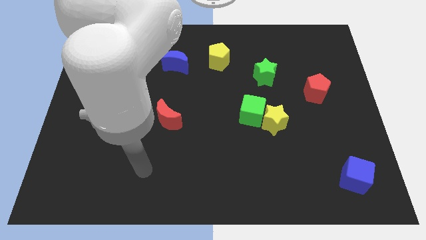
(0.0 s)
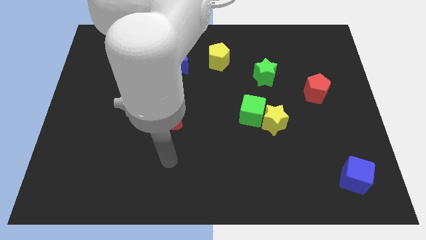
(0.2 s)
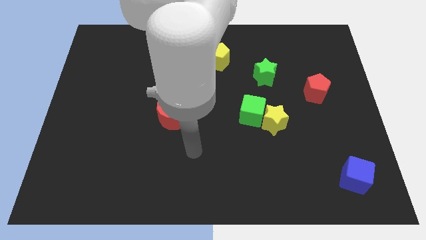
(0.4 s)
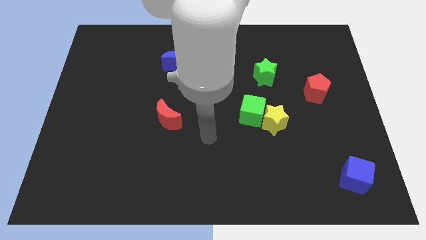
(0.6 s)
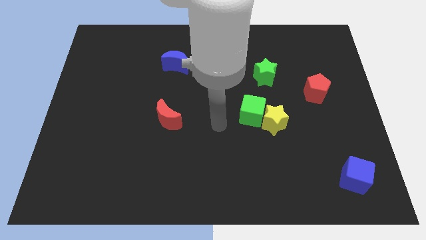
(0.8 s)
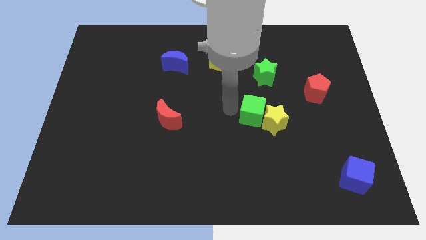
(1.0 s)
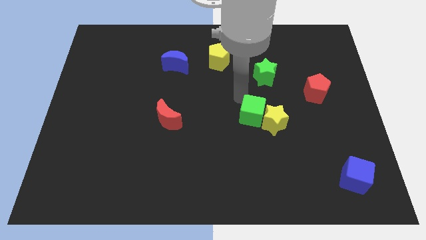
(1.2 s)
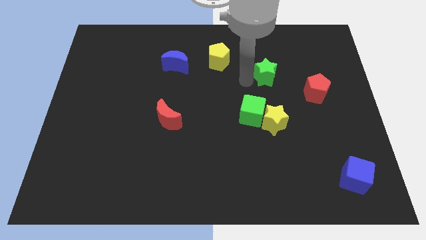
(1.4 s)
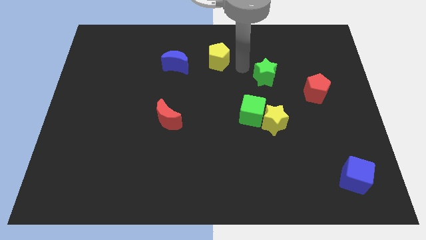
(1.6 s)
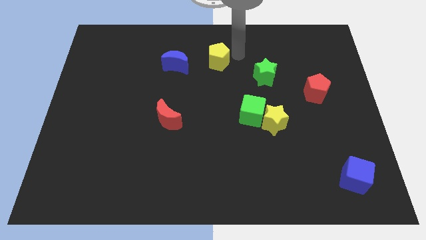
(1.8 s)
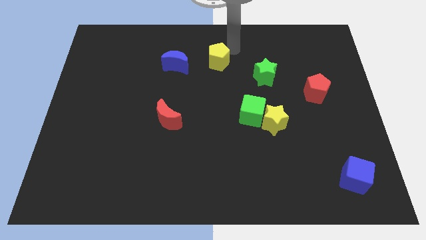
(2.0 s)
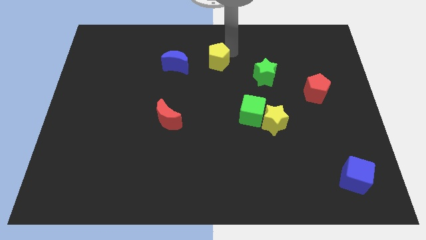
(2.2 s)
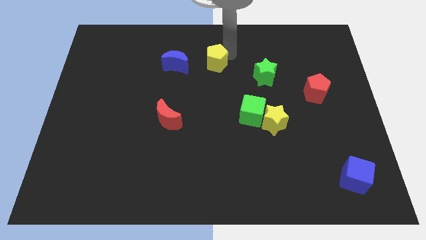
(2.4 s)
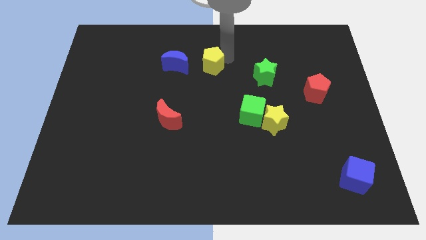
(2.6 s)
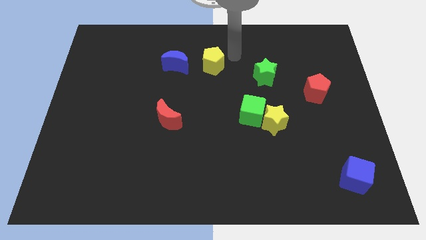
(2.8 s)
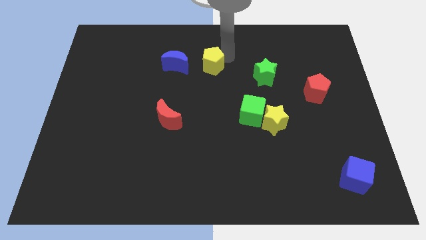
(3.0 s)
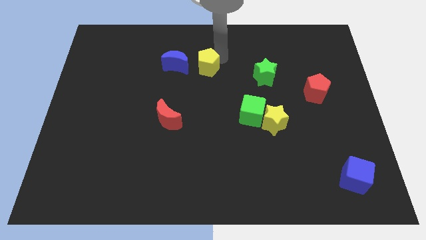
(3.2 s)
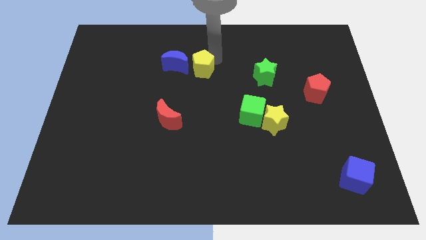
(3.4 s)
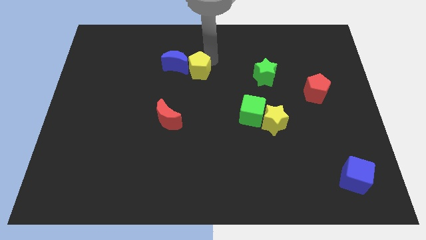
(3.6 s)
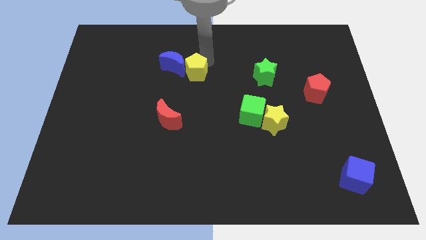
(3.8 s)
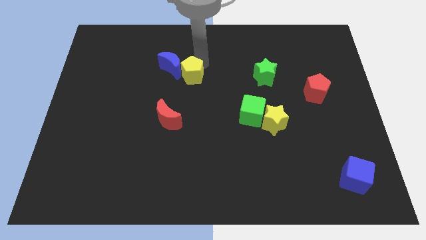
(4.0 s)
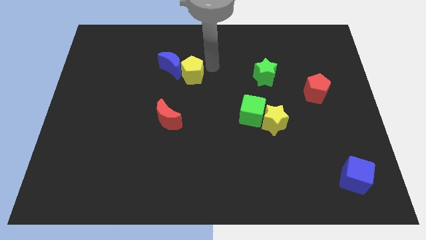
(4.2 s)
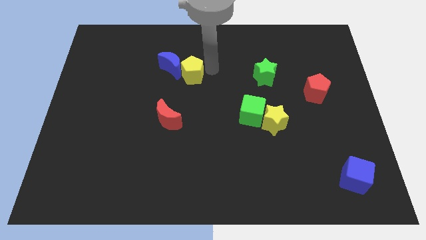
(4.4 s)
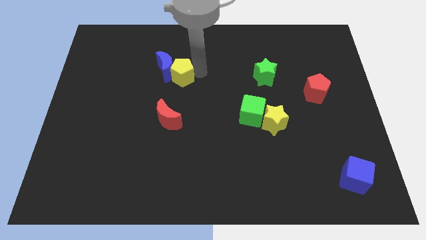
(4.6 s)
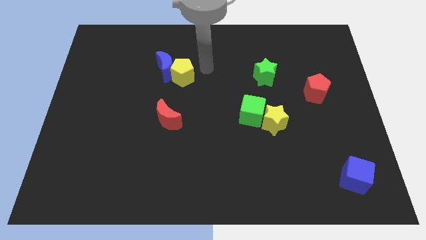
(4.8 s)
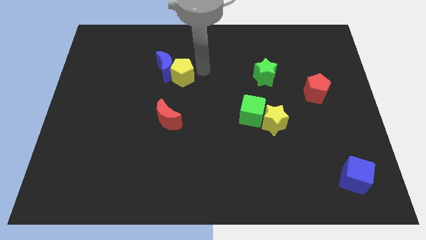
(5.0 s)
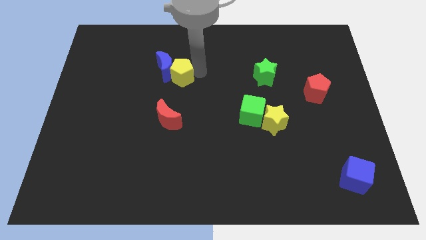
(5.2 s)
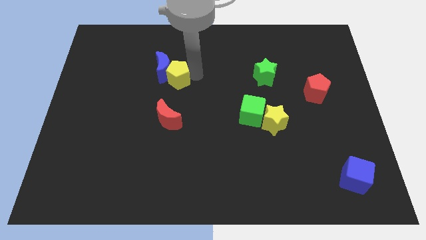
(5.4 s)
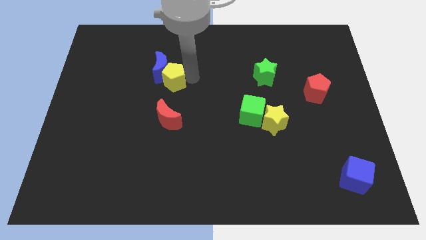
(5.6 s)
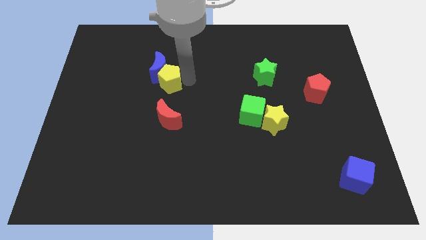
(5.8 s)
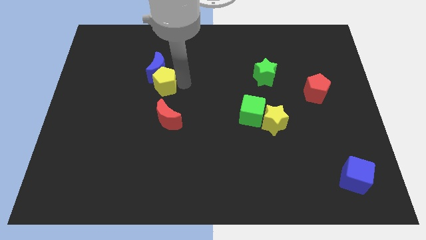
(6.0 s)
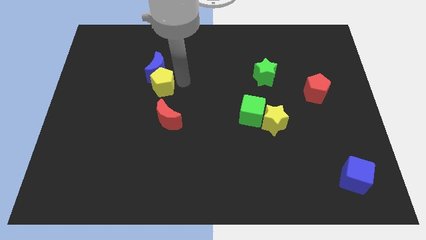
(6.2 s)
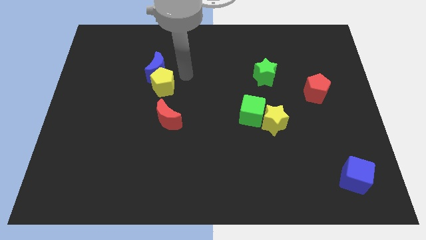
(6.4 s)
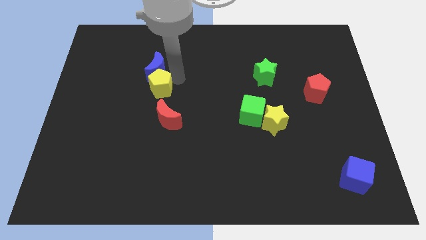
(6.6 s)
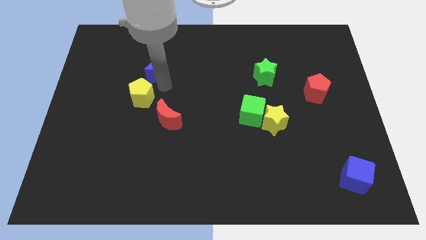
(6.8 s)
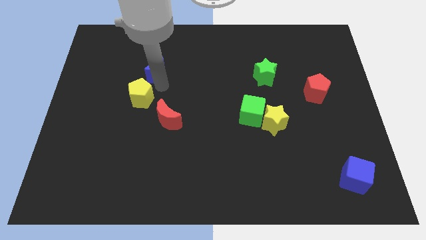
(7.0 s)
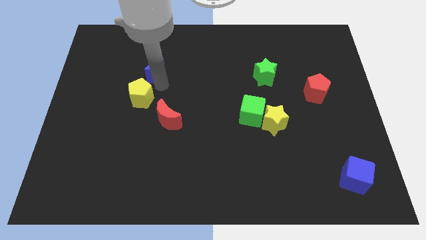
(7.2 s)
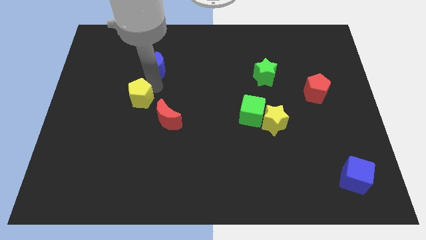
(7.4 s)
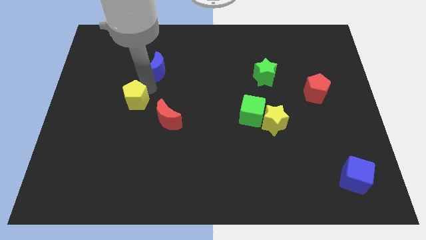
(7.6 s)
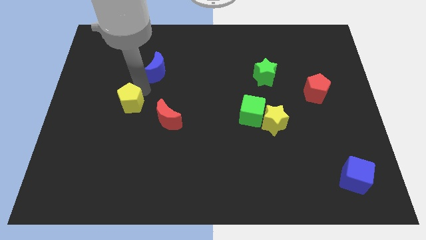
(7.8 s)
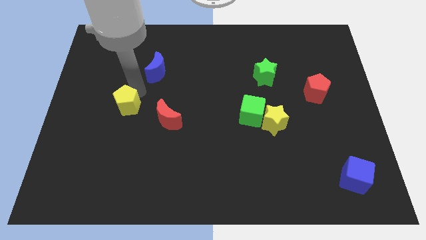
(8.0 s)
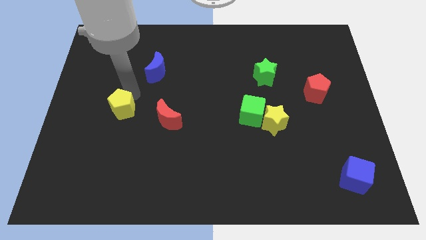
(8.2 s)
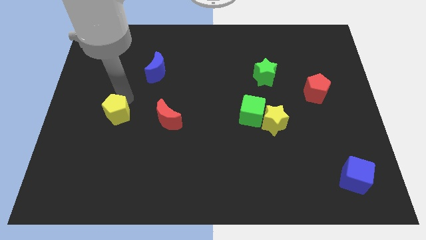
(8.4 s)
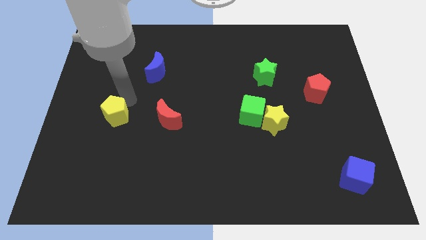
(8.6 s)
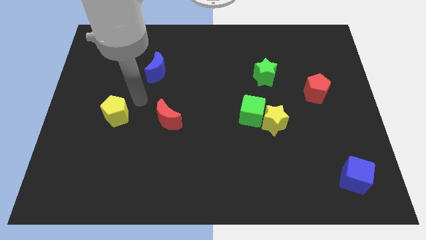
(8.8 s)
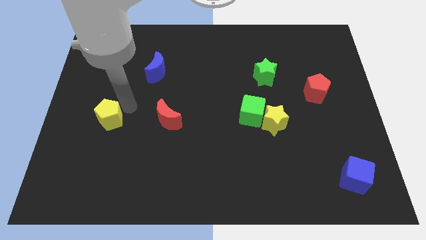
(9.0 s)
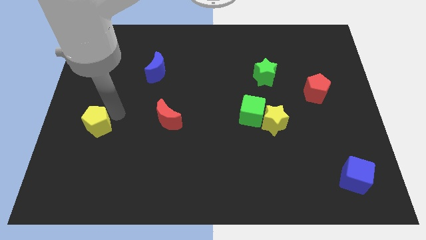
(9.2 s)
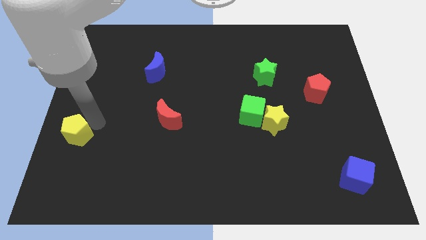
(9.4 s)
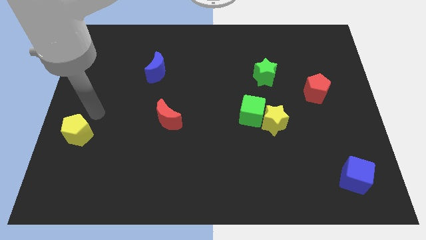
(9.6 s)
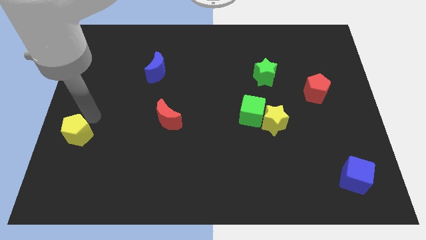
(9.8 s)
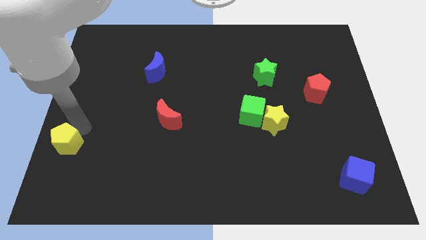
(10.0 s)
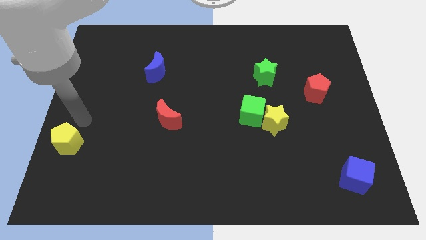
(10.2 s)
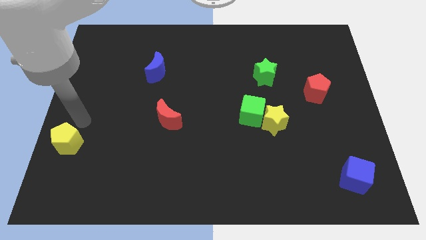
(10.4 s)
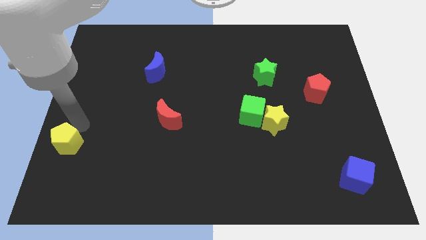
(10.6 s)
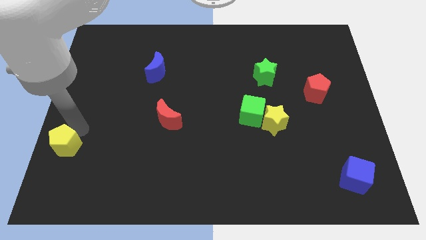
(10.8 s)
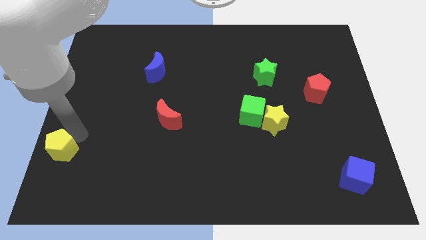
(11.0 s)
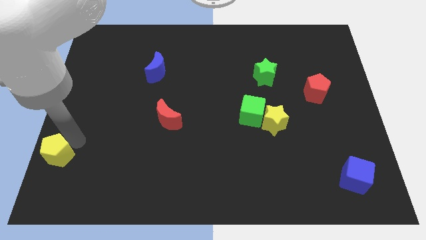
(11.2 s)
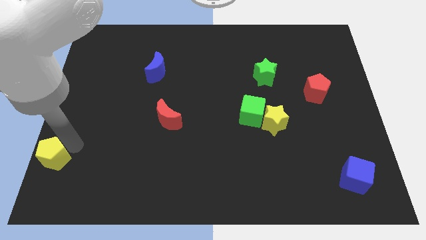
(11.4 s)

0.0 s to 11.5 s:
put the yellow pentagon to the bottom left

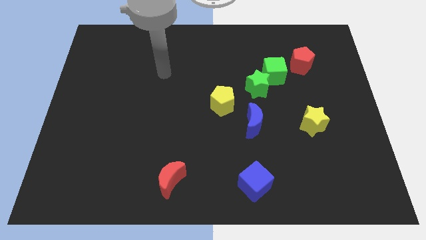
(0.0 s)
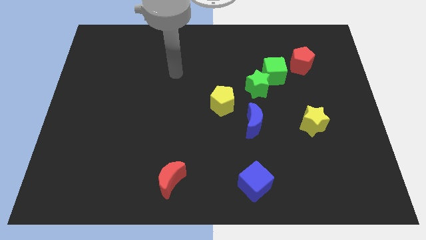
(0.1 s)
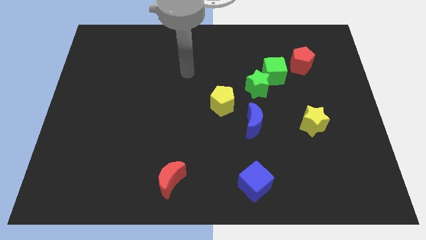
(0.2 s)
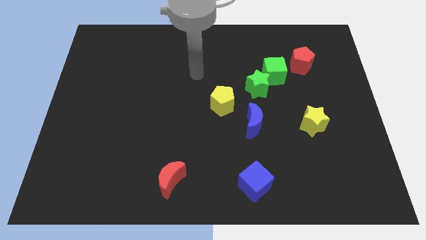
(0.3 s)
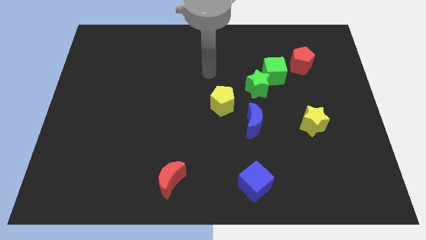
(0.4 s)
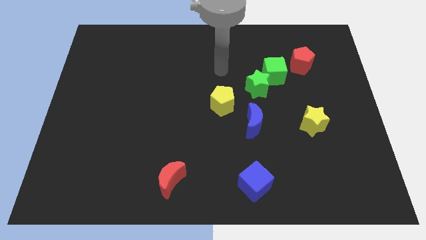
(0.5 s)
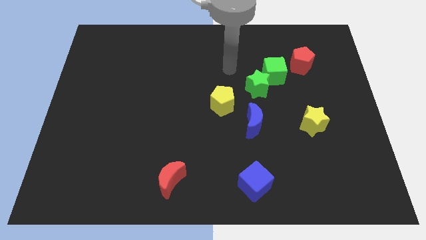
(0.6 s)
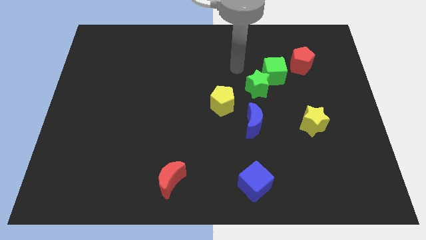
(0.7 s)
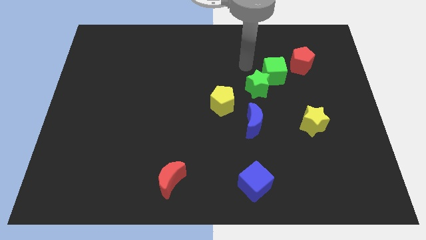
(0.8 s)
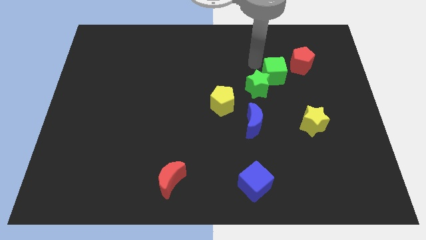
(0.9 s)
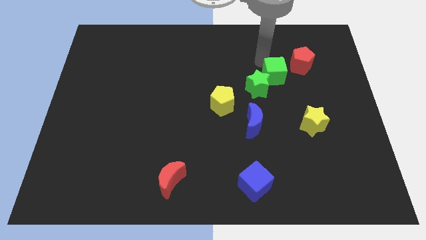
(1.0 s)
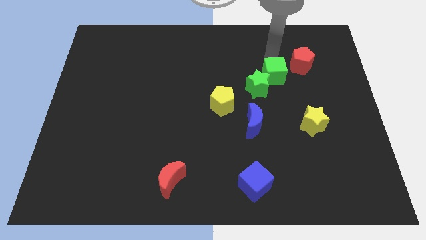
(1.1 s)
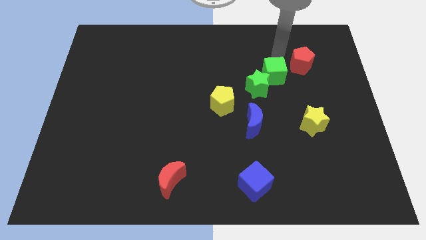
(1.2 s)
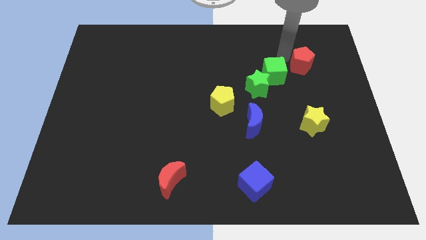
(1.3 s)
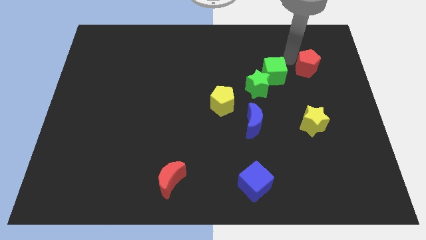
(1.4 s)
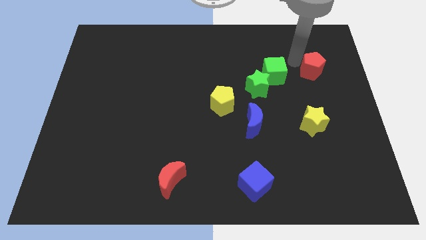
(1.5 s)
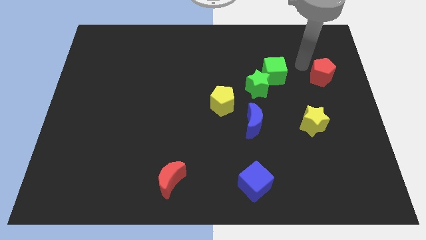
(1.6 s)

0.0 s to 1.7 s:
slide the red pentagon to the right side
